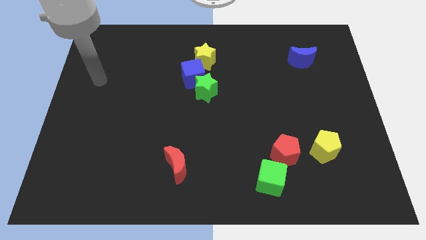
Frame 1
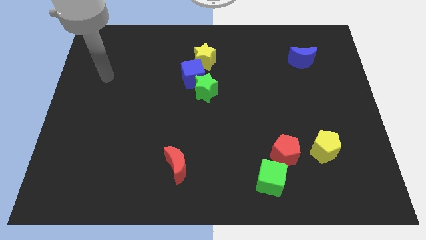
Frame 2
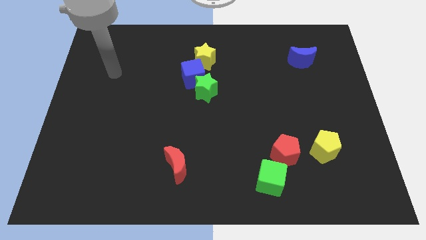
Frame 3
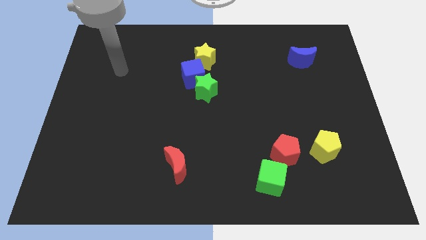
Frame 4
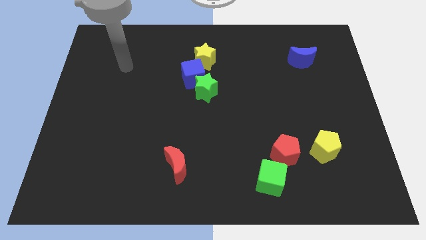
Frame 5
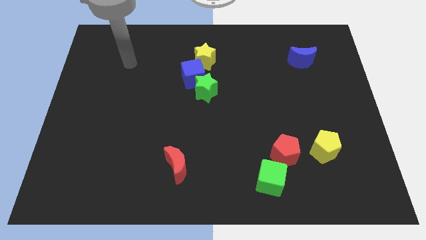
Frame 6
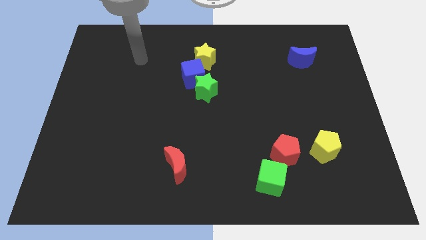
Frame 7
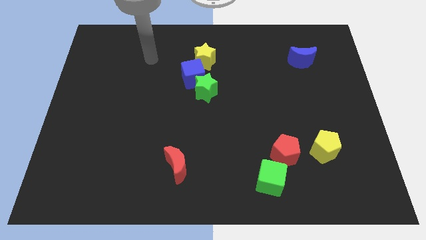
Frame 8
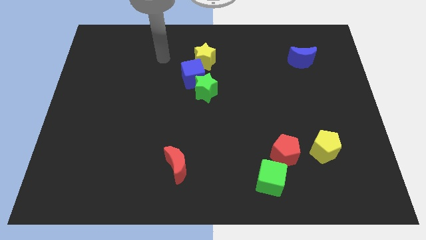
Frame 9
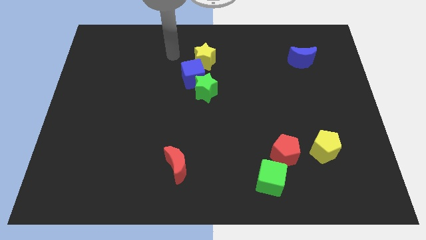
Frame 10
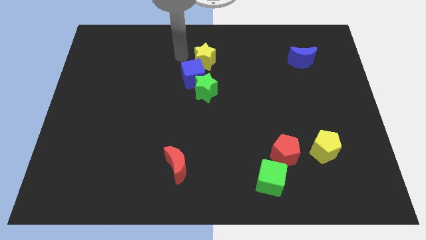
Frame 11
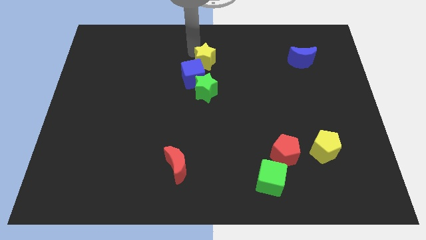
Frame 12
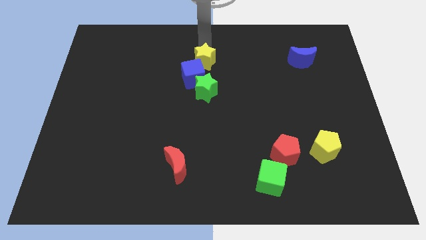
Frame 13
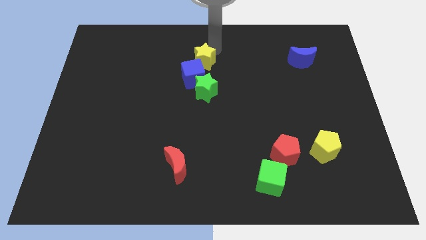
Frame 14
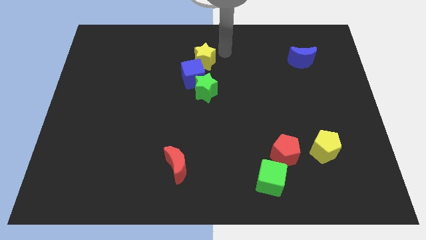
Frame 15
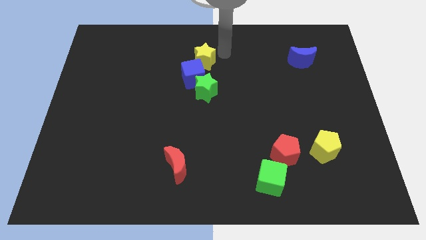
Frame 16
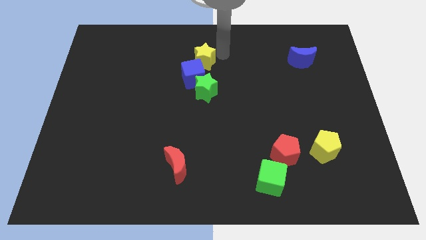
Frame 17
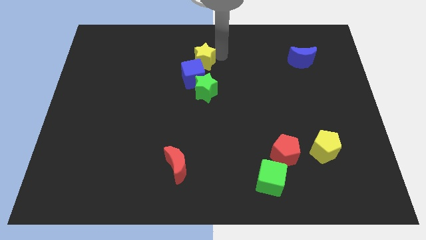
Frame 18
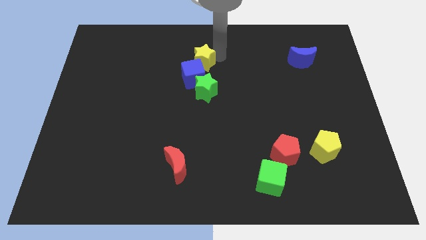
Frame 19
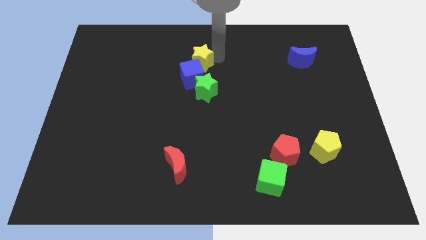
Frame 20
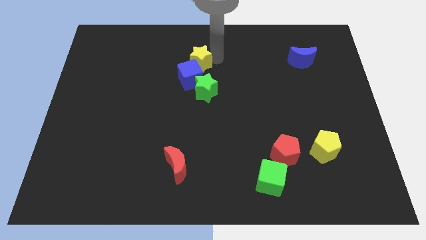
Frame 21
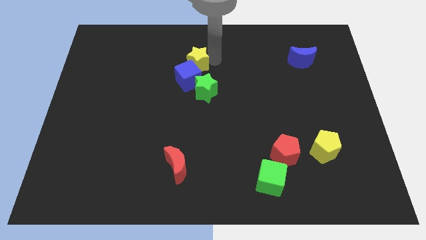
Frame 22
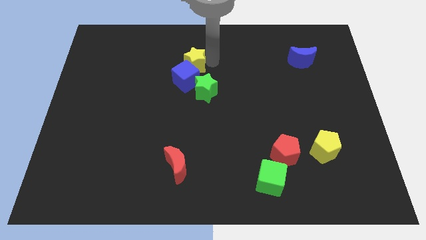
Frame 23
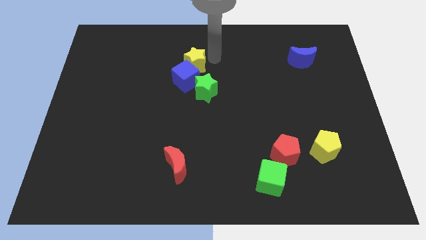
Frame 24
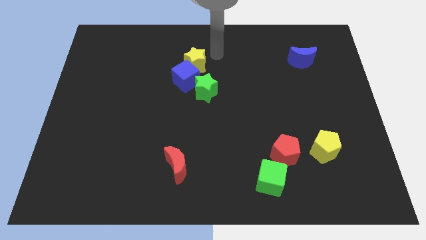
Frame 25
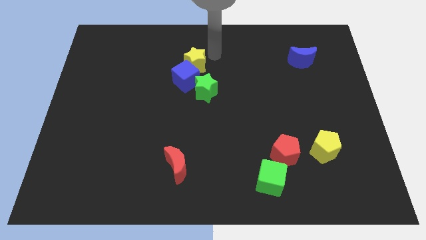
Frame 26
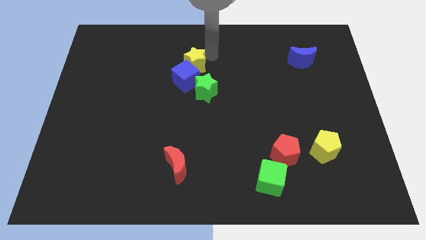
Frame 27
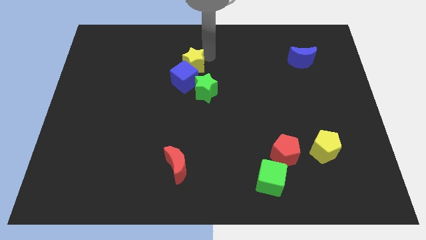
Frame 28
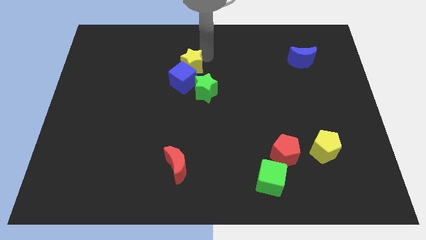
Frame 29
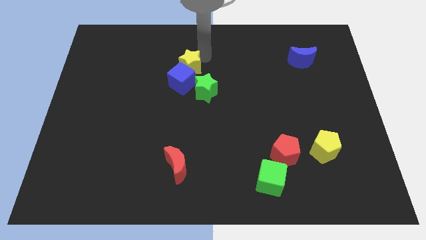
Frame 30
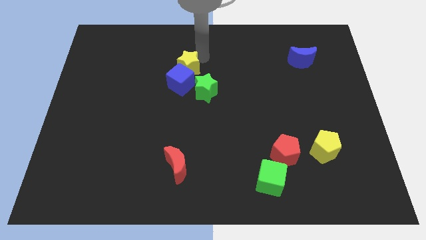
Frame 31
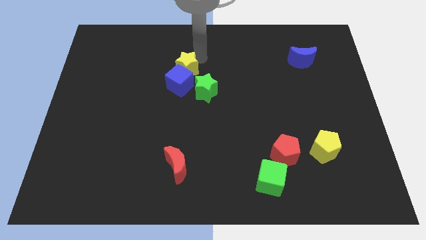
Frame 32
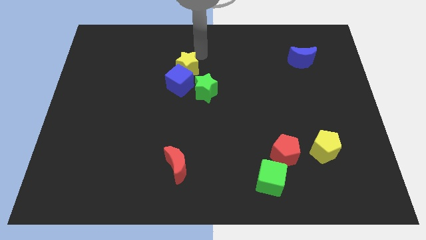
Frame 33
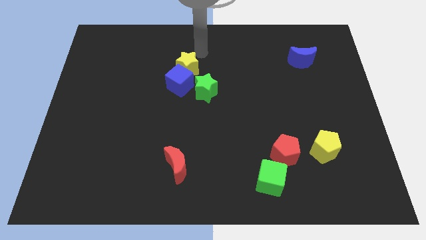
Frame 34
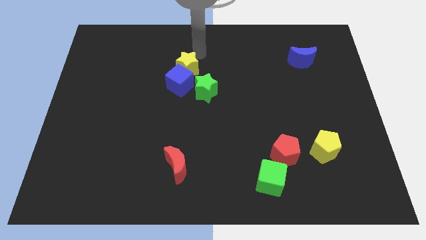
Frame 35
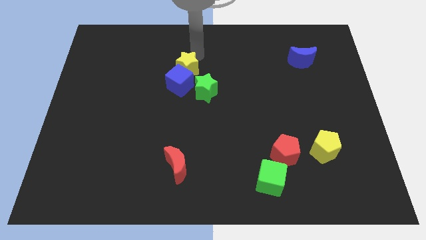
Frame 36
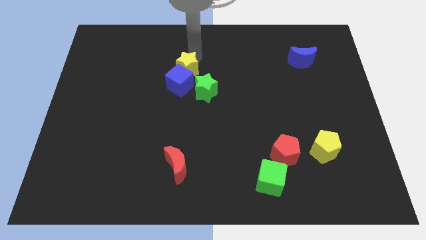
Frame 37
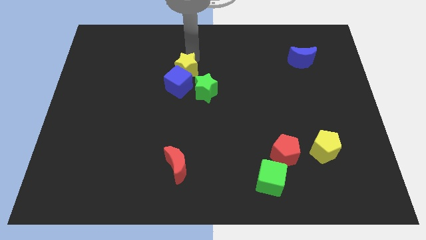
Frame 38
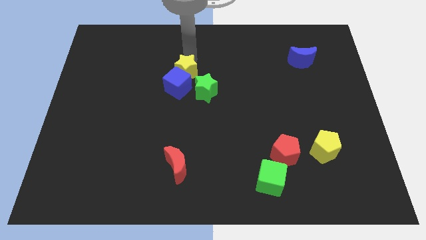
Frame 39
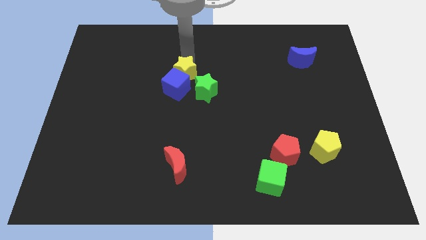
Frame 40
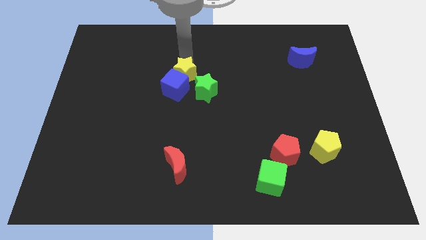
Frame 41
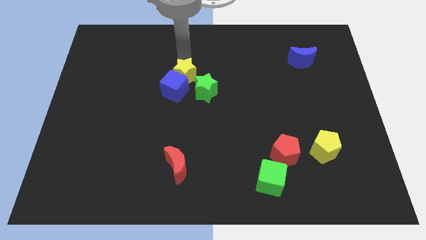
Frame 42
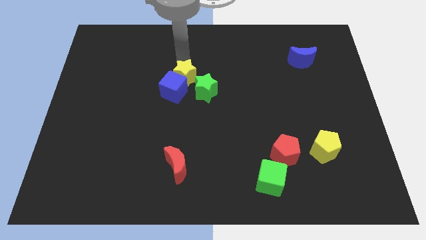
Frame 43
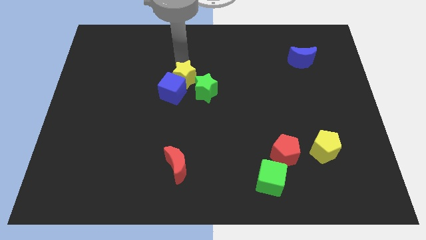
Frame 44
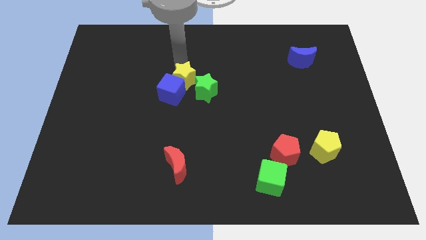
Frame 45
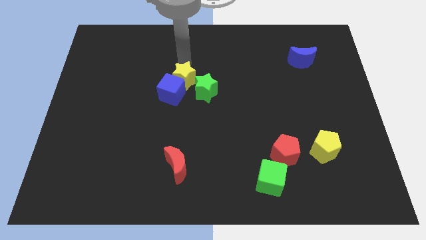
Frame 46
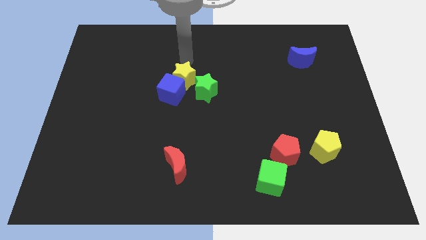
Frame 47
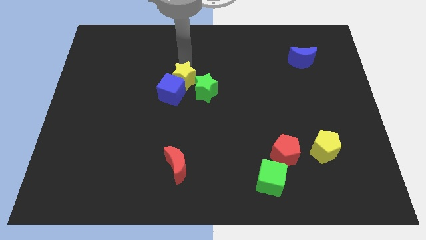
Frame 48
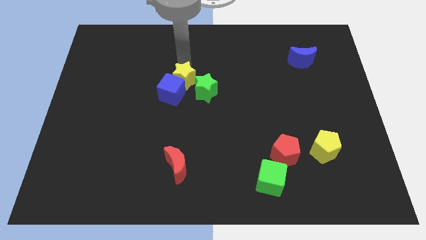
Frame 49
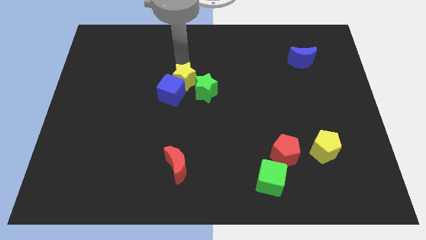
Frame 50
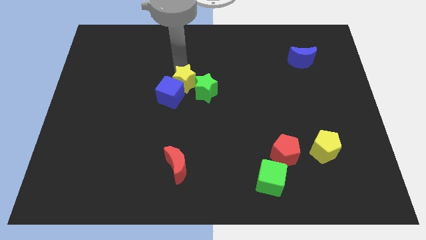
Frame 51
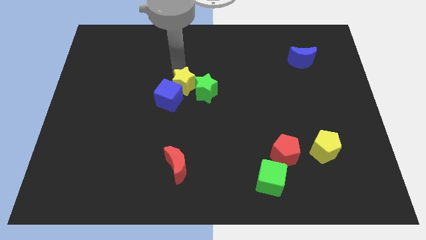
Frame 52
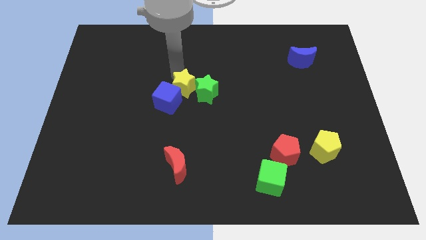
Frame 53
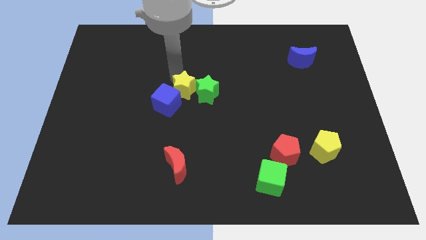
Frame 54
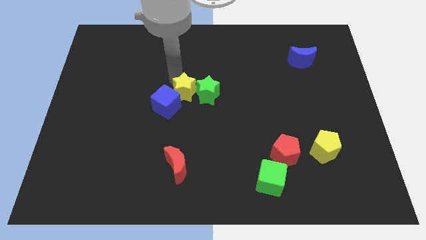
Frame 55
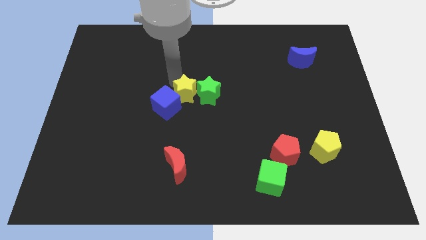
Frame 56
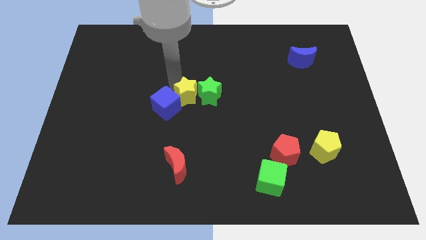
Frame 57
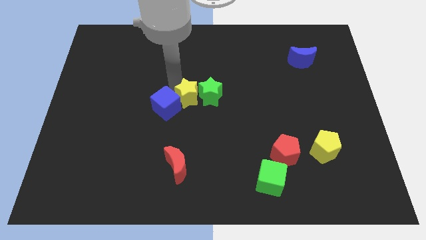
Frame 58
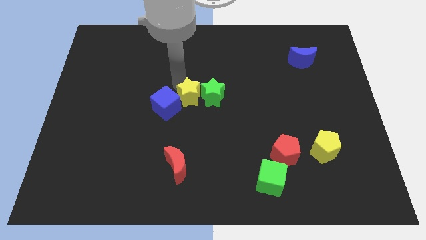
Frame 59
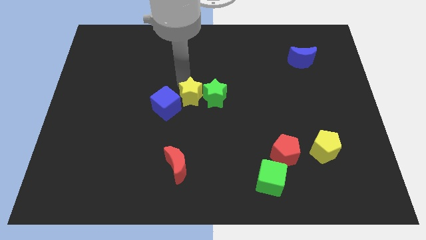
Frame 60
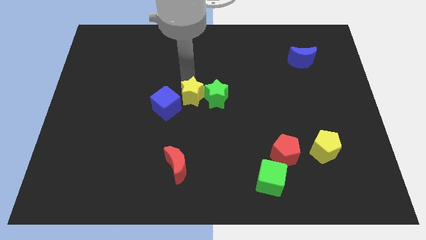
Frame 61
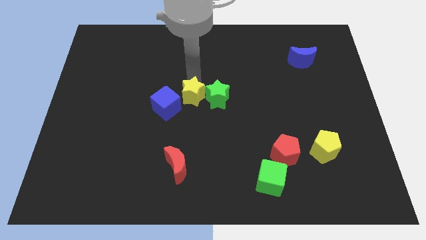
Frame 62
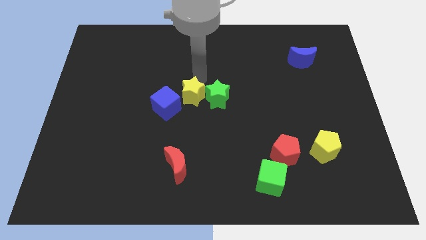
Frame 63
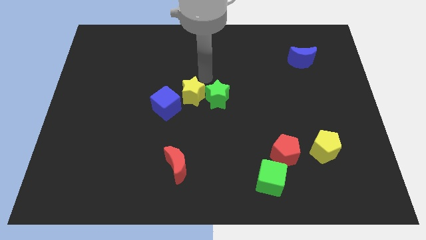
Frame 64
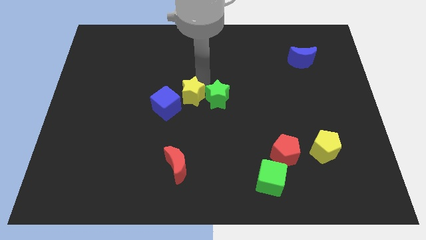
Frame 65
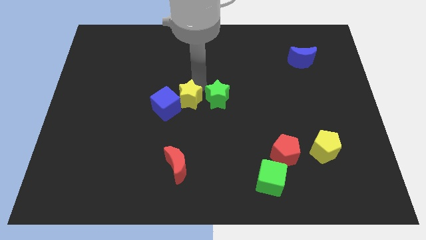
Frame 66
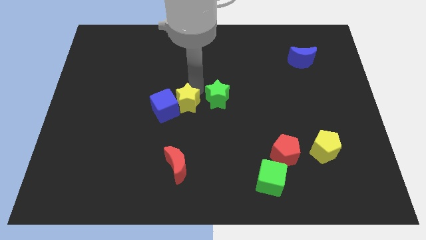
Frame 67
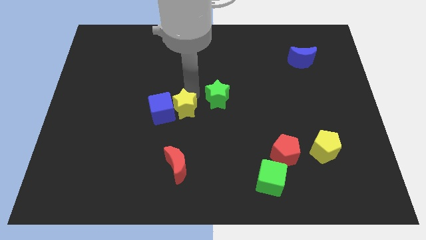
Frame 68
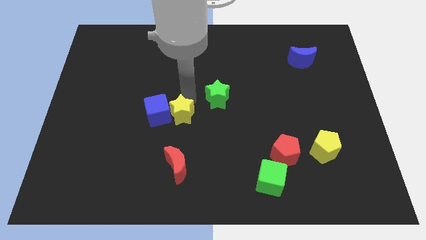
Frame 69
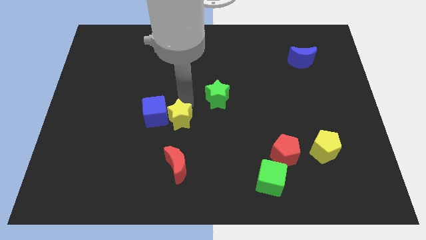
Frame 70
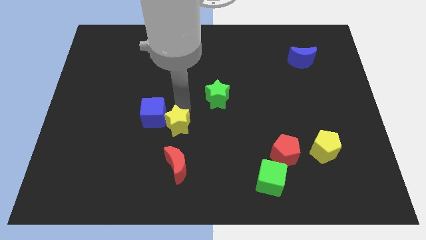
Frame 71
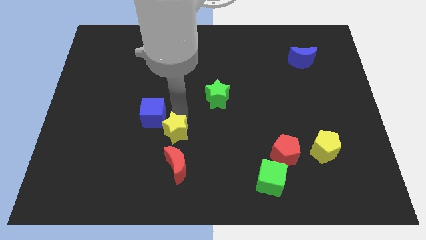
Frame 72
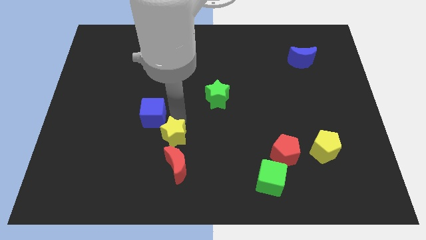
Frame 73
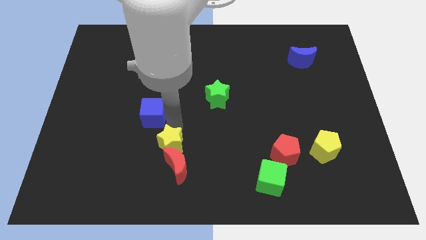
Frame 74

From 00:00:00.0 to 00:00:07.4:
put the yellow star next to the red moon
